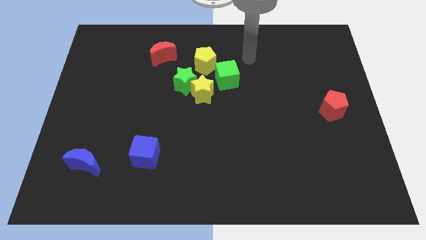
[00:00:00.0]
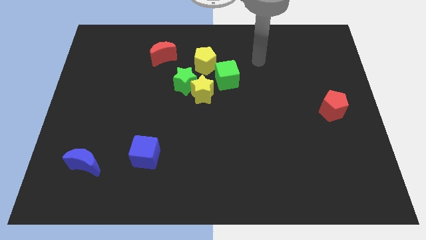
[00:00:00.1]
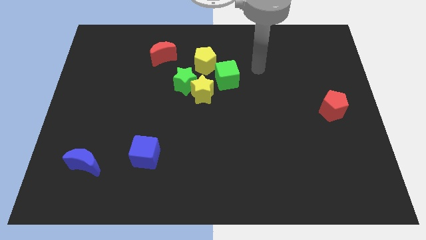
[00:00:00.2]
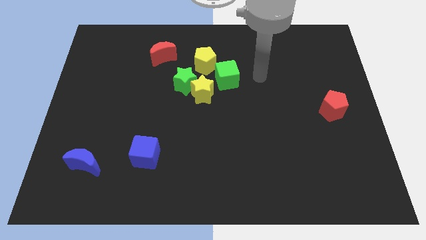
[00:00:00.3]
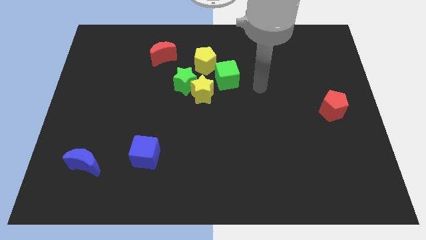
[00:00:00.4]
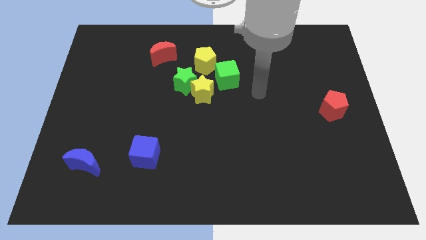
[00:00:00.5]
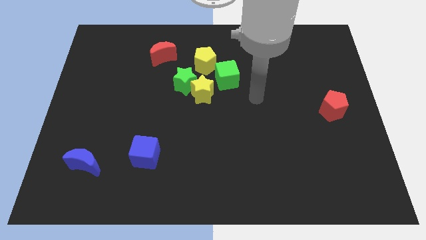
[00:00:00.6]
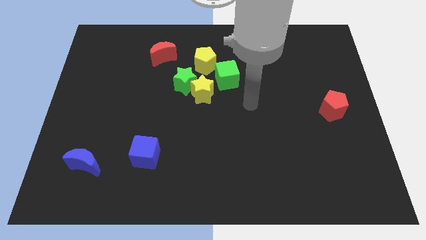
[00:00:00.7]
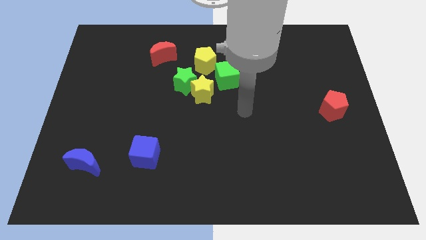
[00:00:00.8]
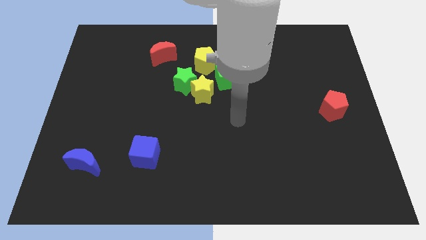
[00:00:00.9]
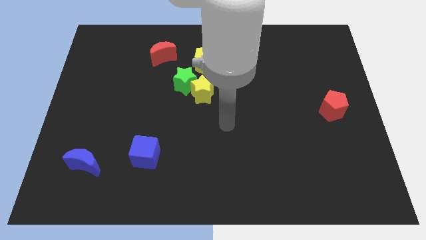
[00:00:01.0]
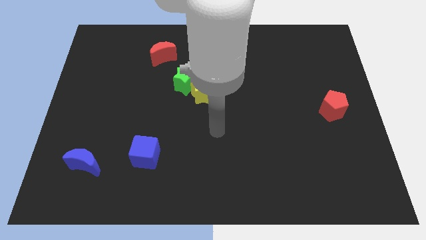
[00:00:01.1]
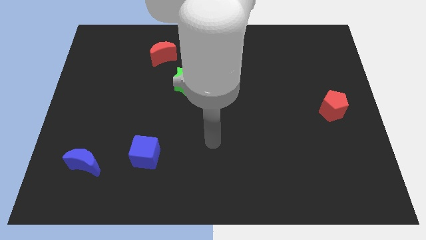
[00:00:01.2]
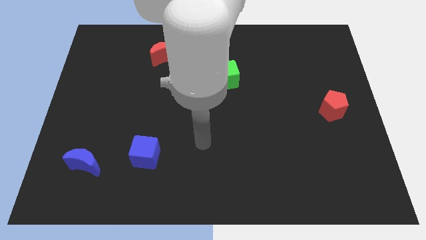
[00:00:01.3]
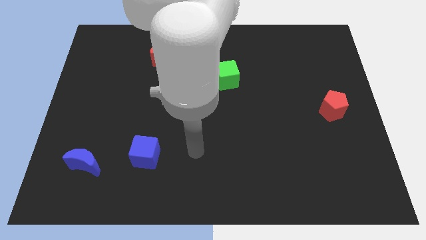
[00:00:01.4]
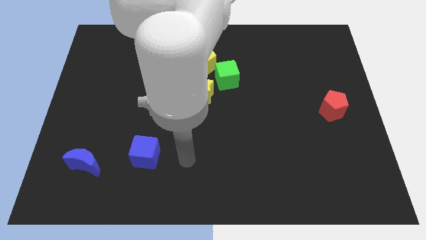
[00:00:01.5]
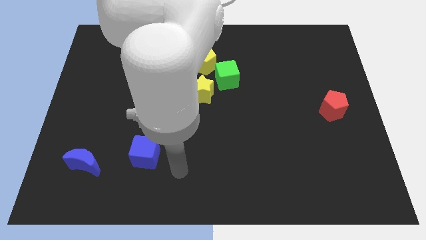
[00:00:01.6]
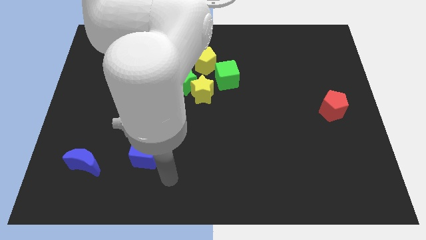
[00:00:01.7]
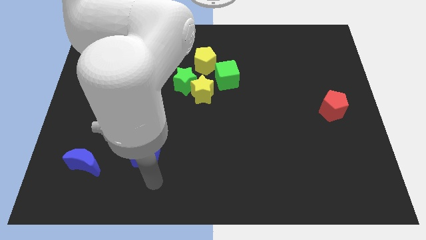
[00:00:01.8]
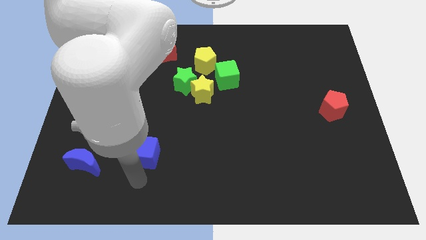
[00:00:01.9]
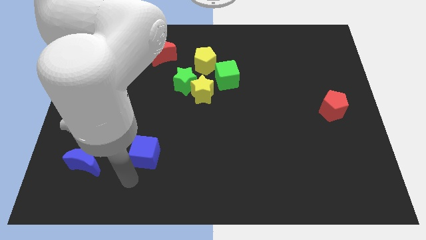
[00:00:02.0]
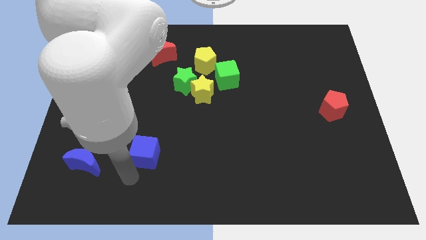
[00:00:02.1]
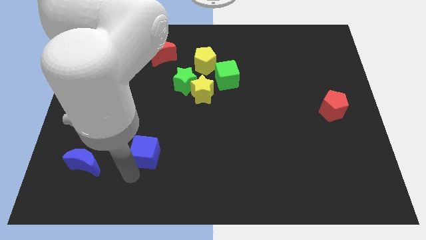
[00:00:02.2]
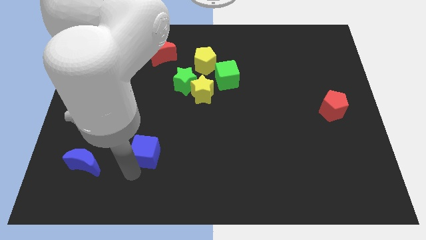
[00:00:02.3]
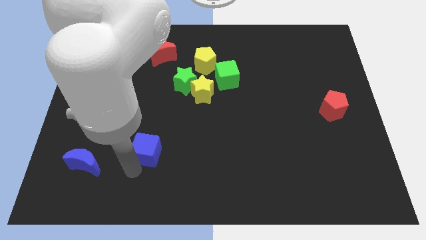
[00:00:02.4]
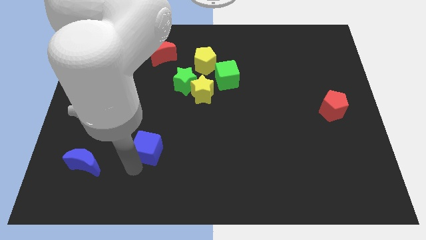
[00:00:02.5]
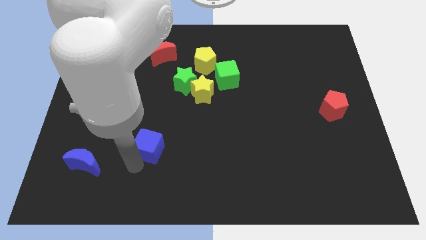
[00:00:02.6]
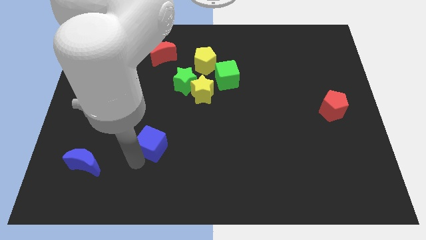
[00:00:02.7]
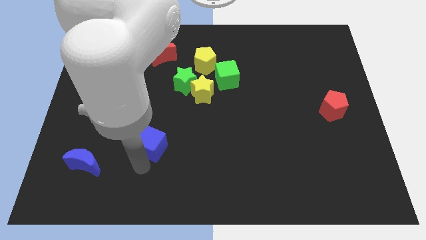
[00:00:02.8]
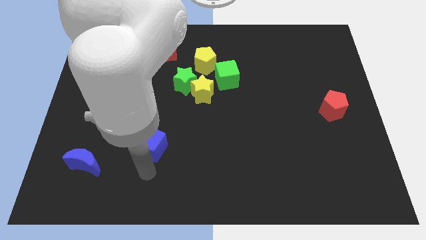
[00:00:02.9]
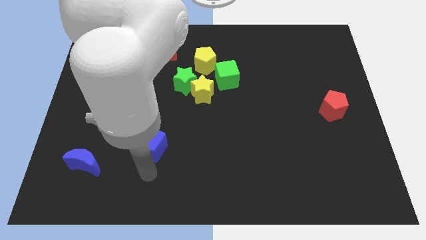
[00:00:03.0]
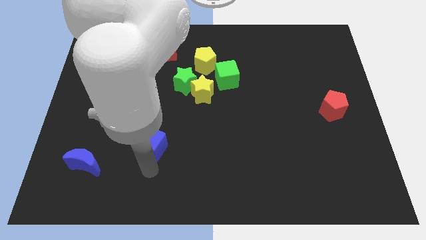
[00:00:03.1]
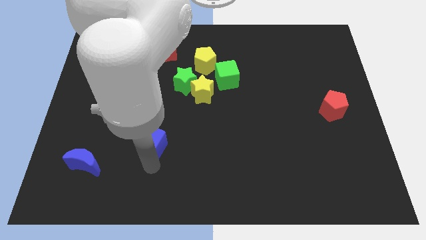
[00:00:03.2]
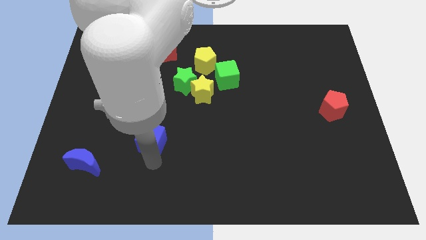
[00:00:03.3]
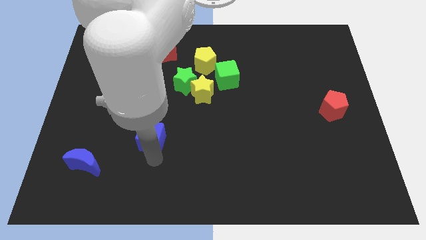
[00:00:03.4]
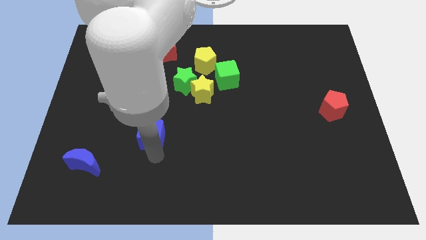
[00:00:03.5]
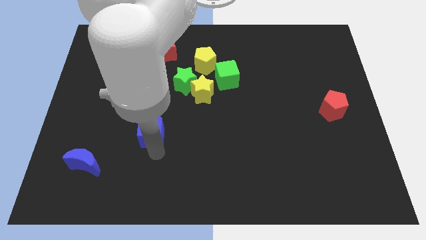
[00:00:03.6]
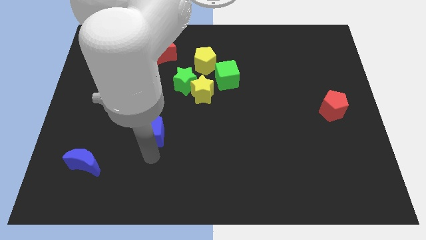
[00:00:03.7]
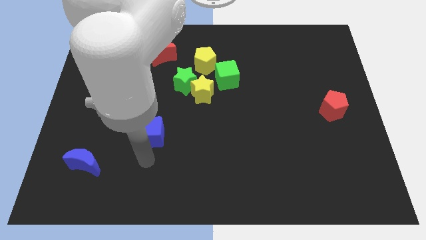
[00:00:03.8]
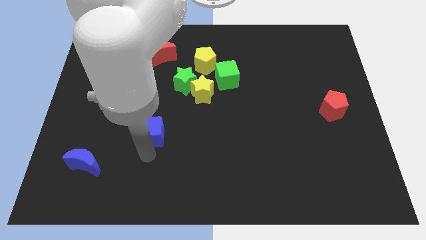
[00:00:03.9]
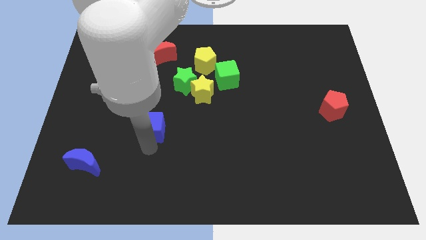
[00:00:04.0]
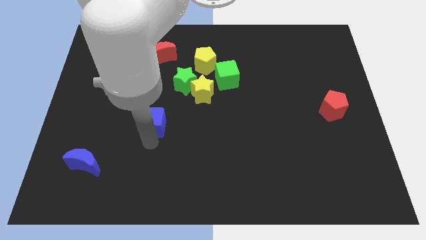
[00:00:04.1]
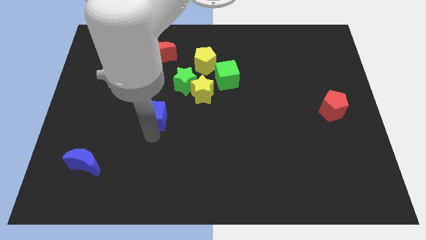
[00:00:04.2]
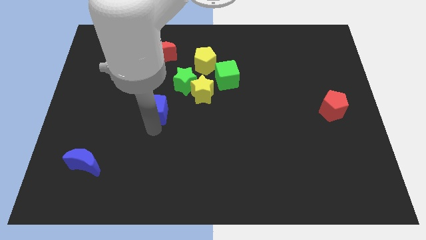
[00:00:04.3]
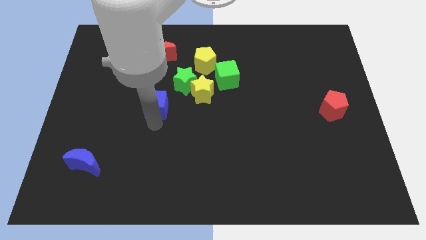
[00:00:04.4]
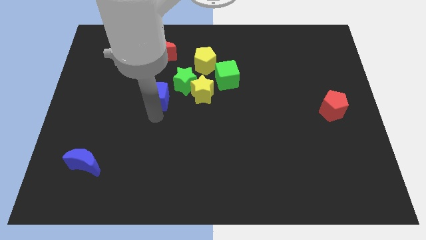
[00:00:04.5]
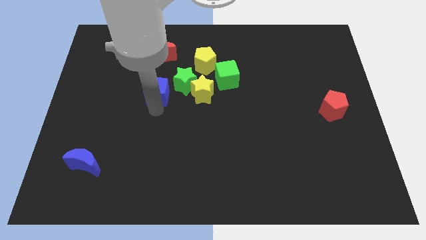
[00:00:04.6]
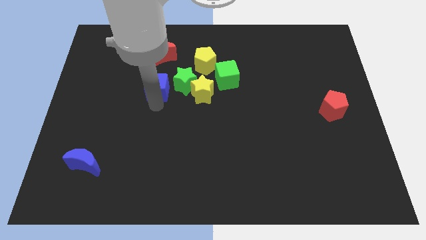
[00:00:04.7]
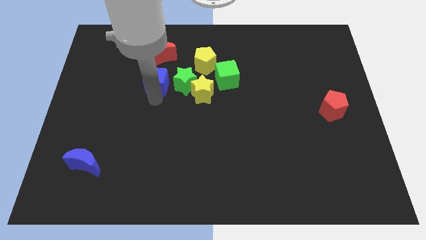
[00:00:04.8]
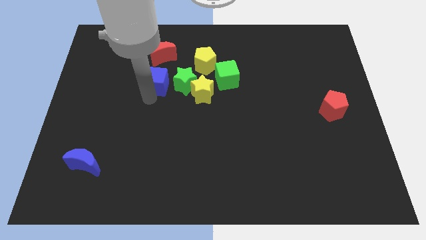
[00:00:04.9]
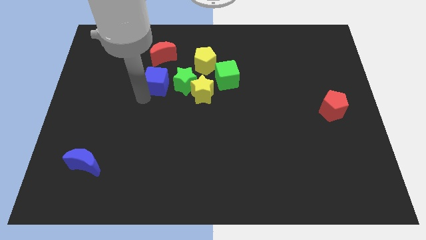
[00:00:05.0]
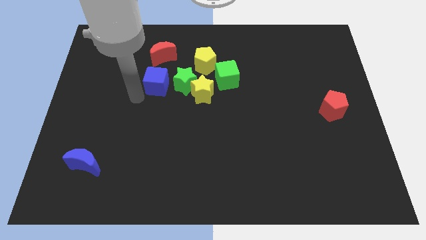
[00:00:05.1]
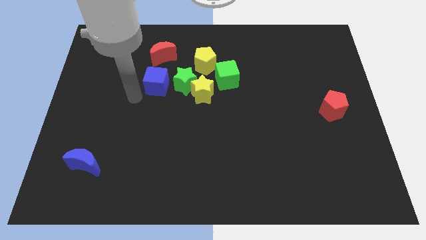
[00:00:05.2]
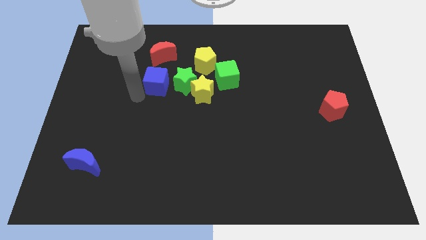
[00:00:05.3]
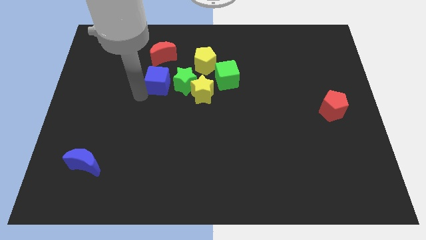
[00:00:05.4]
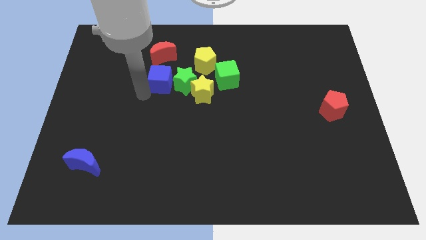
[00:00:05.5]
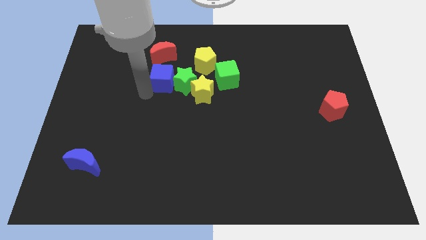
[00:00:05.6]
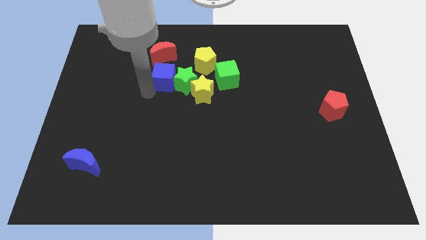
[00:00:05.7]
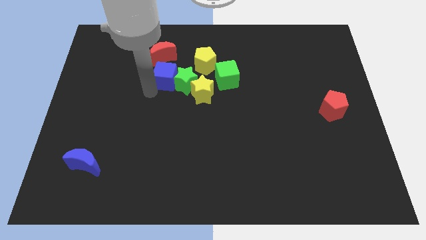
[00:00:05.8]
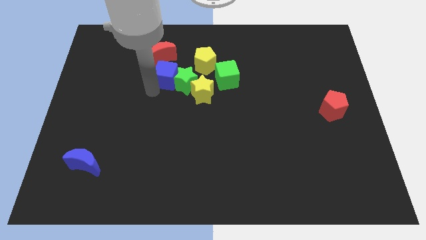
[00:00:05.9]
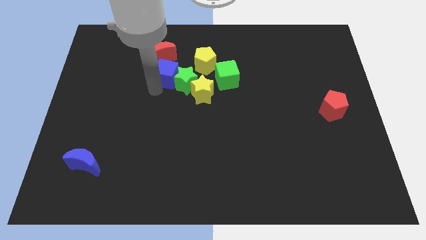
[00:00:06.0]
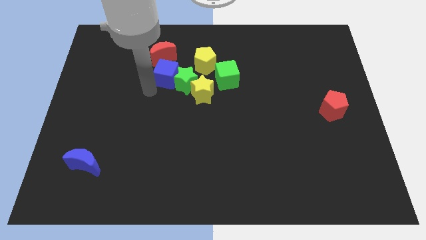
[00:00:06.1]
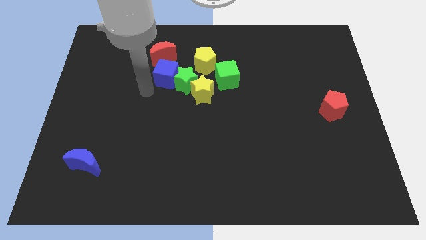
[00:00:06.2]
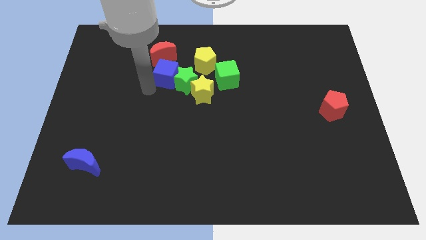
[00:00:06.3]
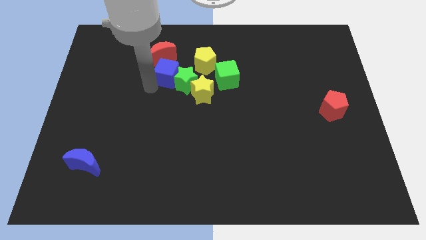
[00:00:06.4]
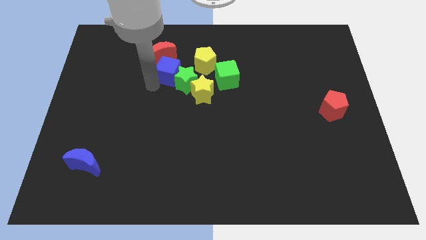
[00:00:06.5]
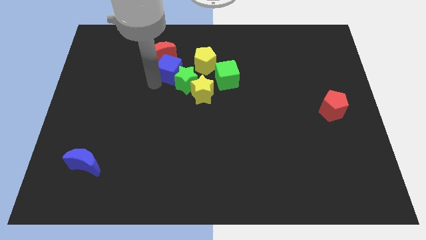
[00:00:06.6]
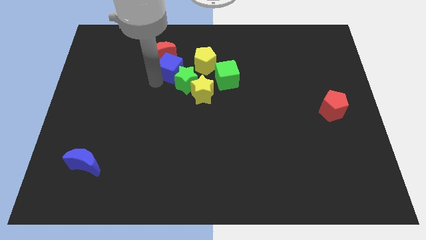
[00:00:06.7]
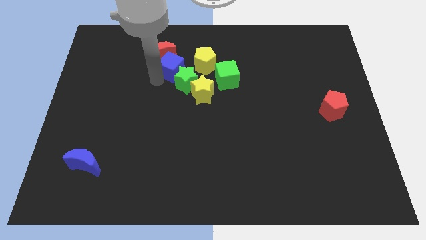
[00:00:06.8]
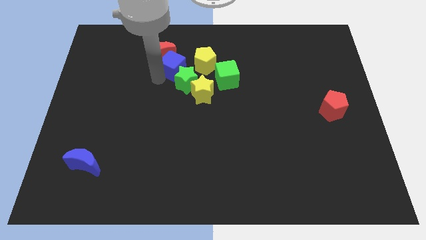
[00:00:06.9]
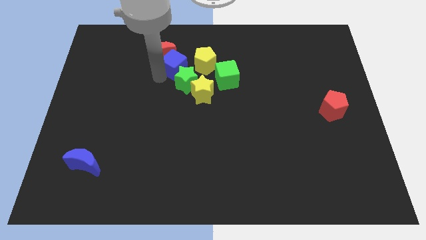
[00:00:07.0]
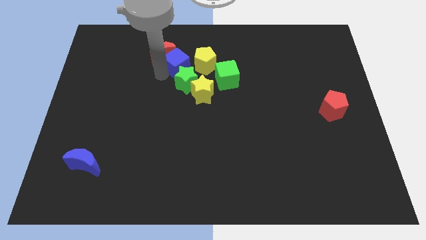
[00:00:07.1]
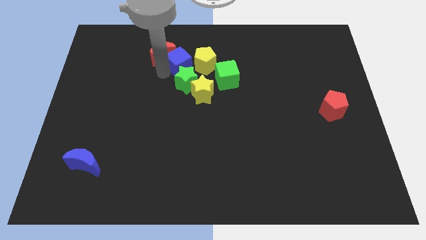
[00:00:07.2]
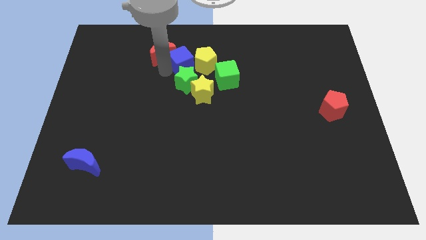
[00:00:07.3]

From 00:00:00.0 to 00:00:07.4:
move the blue cube towards the yellow pentagon
